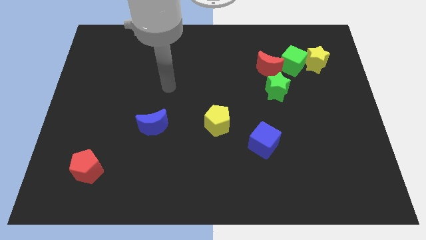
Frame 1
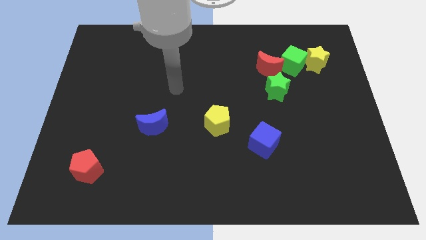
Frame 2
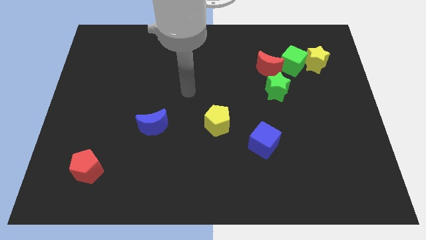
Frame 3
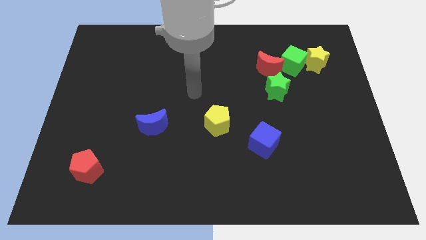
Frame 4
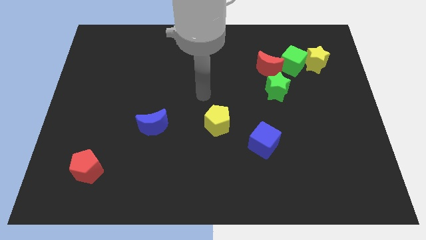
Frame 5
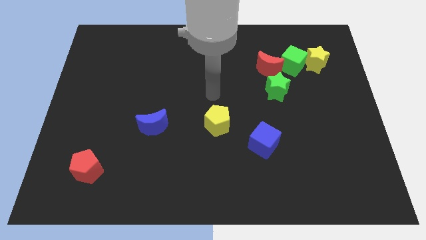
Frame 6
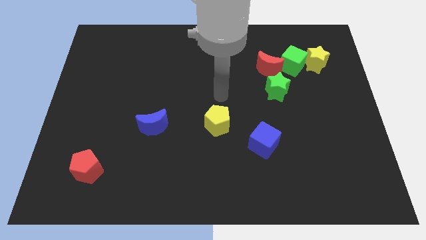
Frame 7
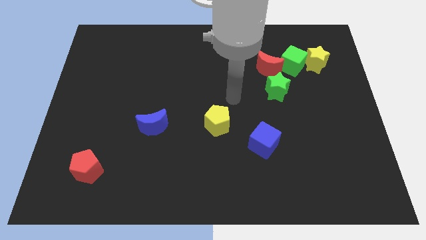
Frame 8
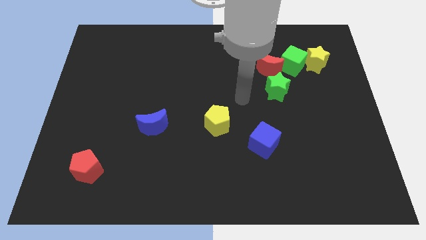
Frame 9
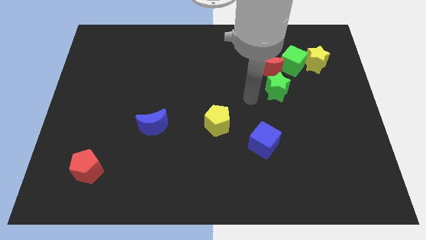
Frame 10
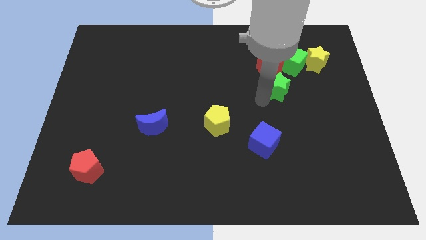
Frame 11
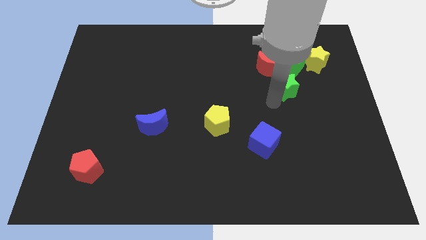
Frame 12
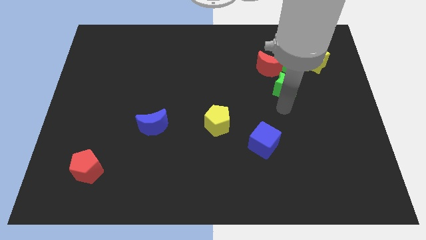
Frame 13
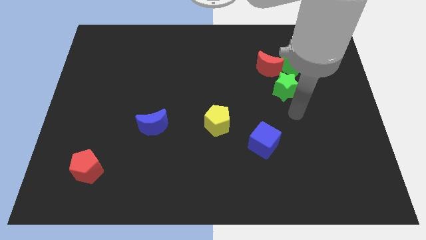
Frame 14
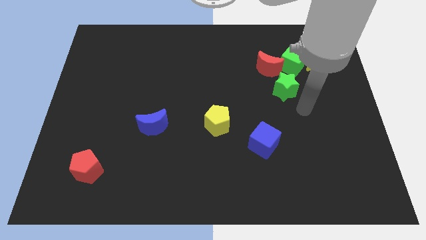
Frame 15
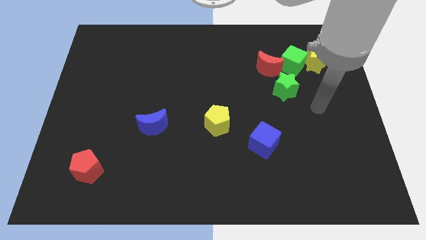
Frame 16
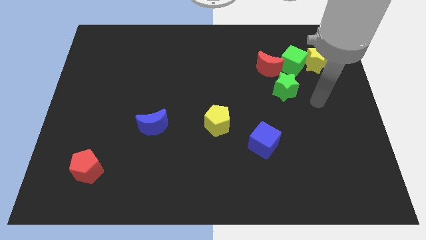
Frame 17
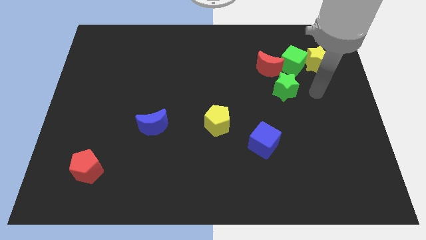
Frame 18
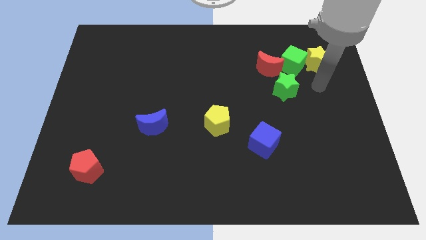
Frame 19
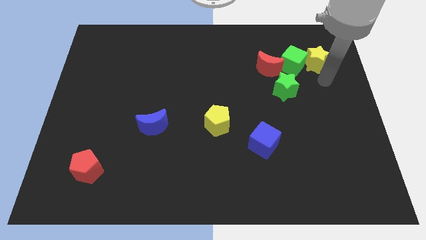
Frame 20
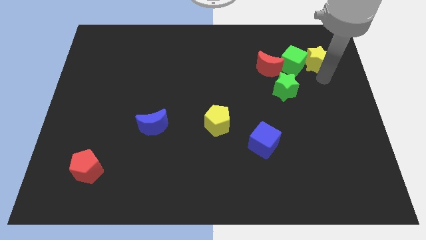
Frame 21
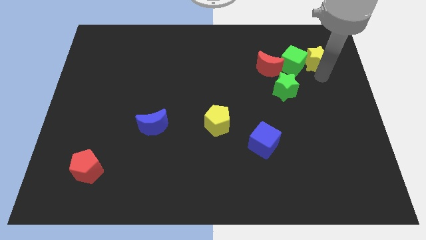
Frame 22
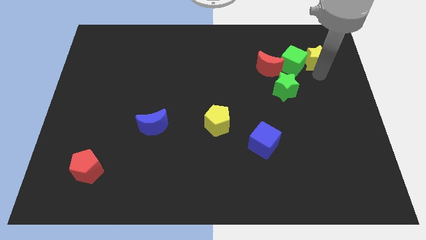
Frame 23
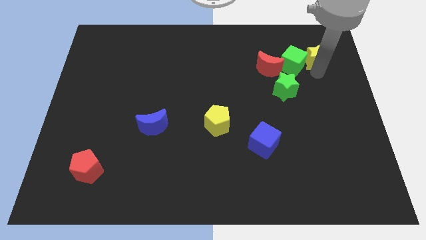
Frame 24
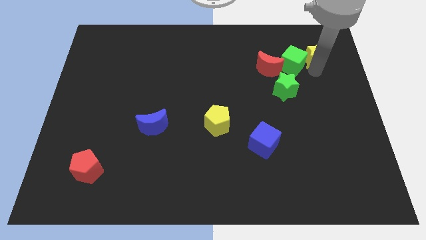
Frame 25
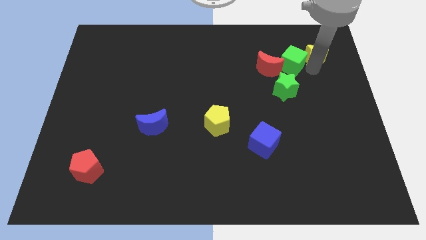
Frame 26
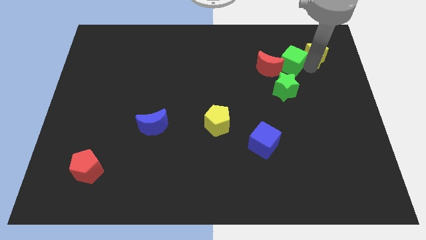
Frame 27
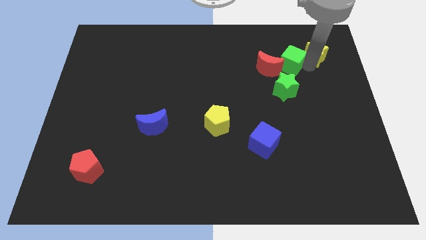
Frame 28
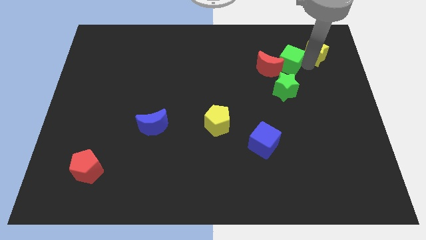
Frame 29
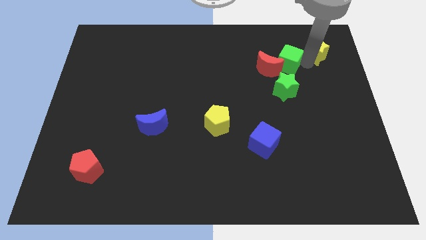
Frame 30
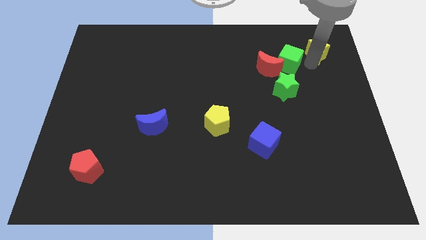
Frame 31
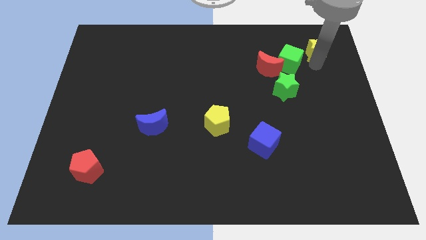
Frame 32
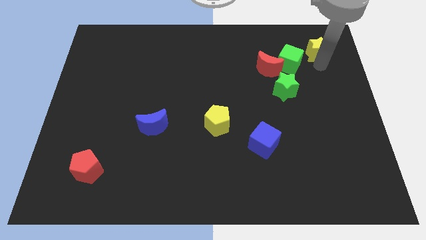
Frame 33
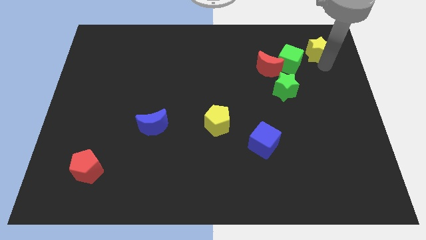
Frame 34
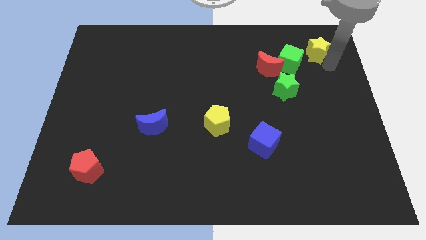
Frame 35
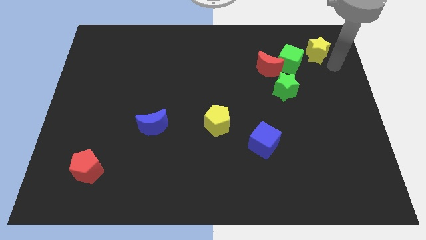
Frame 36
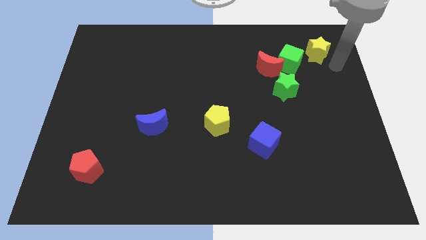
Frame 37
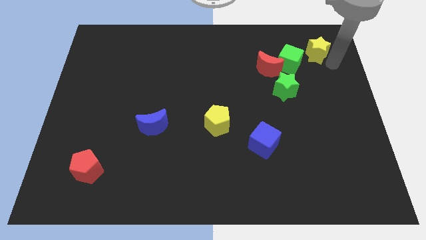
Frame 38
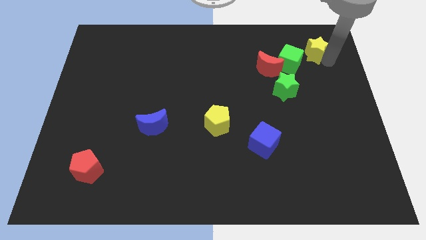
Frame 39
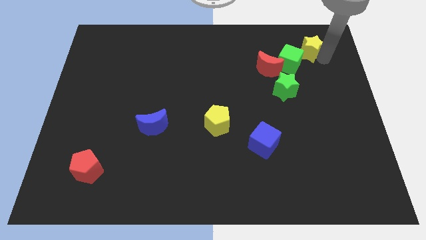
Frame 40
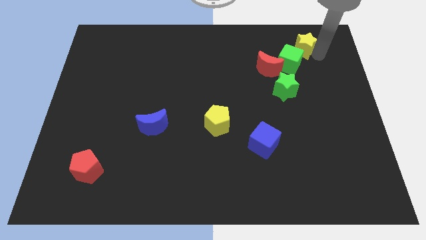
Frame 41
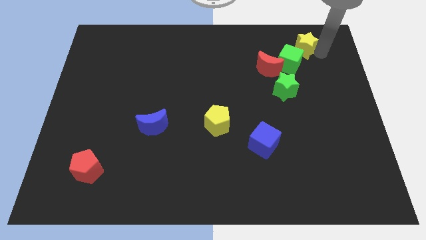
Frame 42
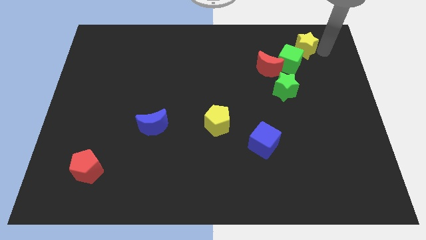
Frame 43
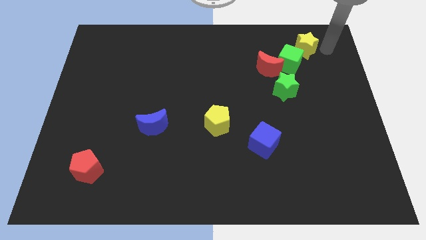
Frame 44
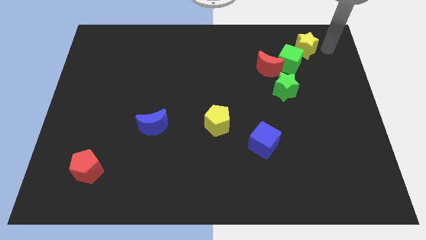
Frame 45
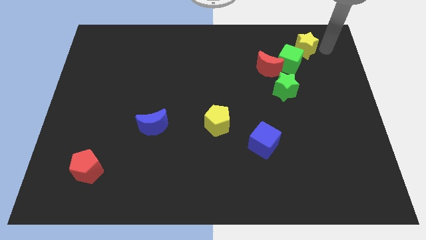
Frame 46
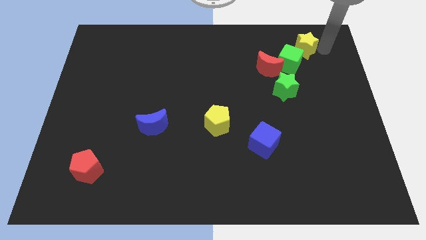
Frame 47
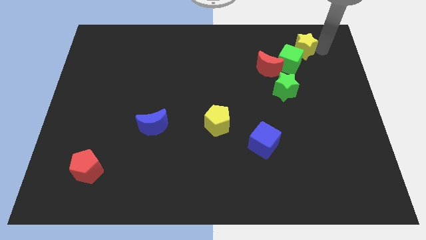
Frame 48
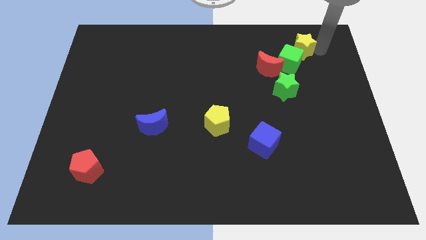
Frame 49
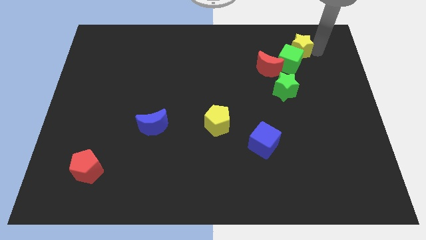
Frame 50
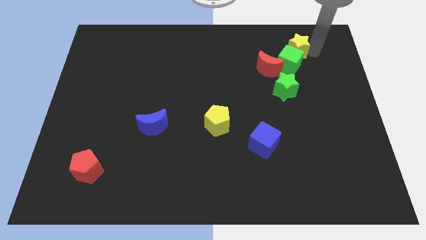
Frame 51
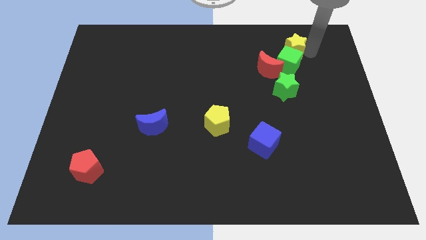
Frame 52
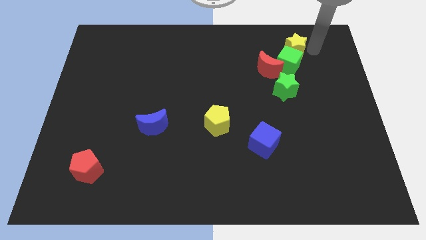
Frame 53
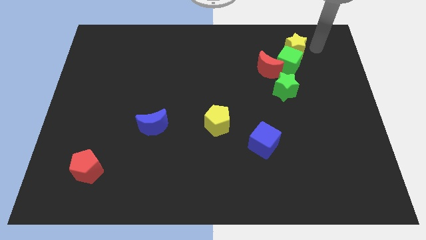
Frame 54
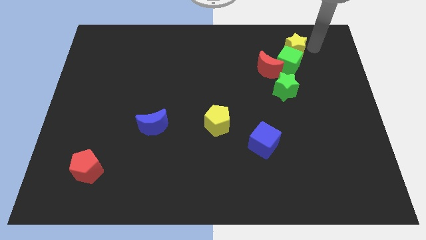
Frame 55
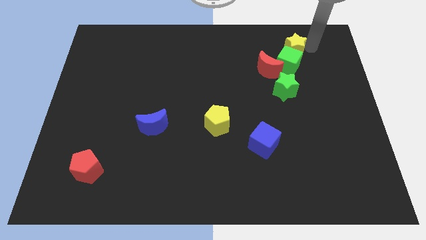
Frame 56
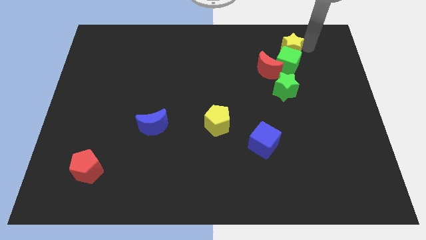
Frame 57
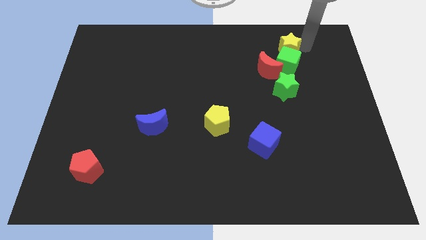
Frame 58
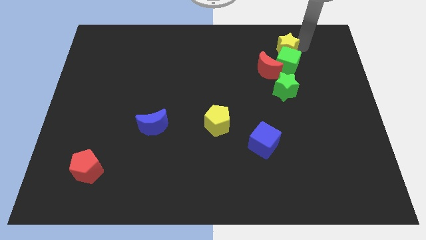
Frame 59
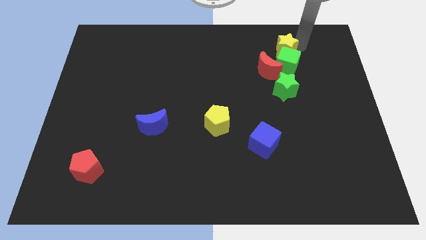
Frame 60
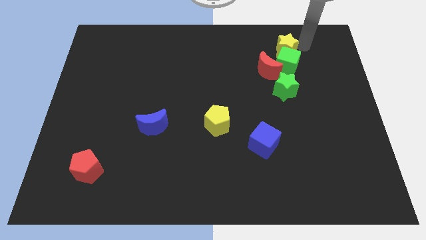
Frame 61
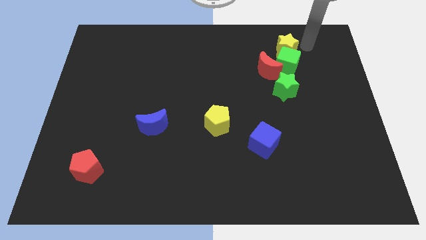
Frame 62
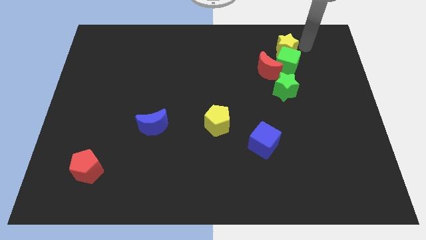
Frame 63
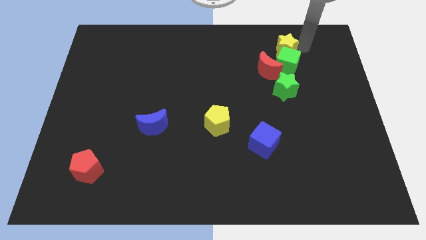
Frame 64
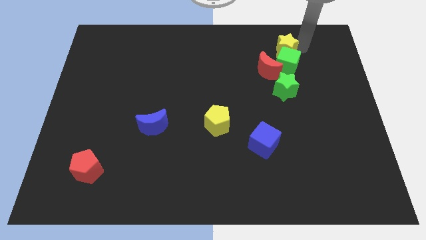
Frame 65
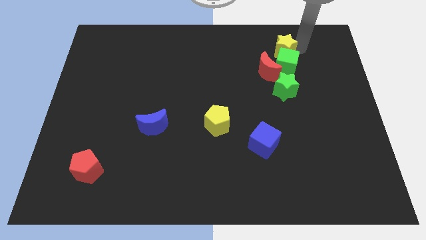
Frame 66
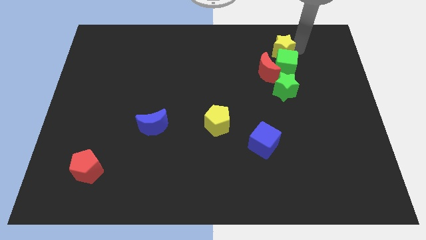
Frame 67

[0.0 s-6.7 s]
move the yellow star to the left a little

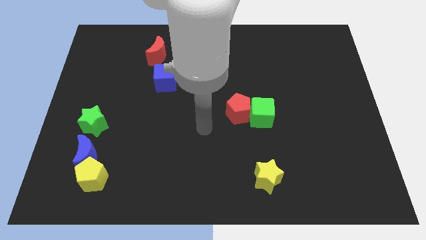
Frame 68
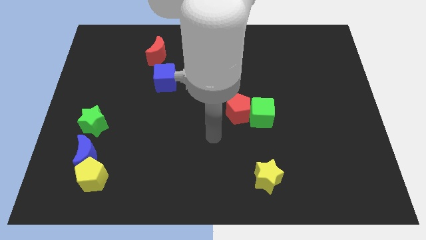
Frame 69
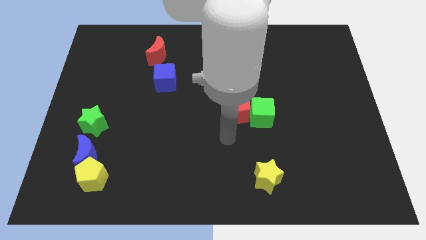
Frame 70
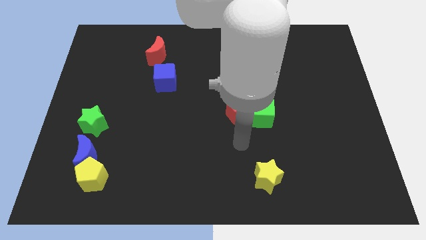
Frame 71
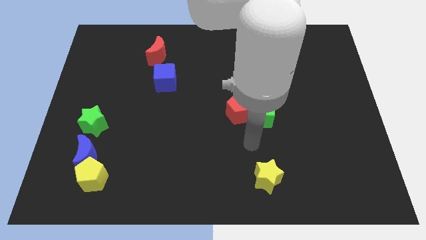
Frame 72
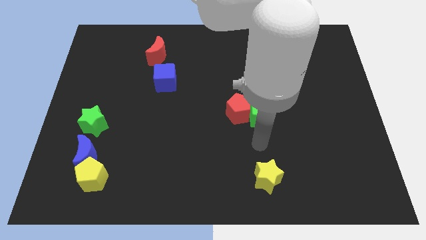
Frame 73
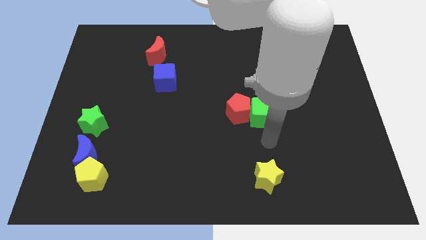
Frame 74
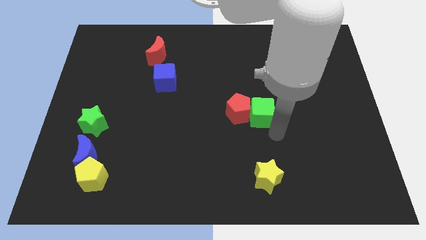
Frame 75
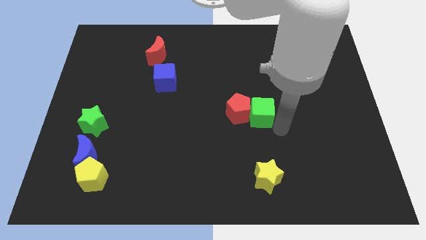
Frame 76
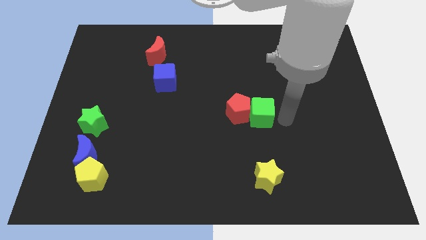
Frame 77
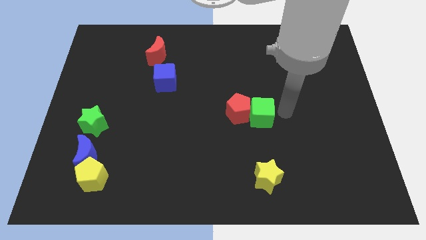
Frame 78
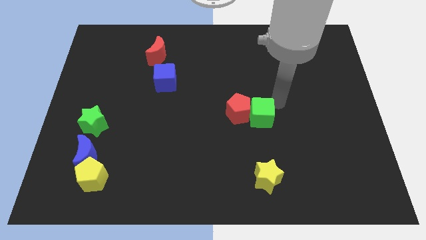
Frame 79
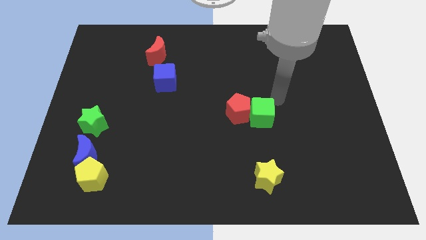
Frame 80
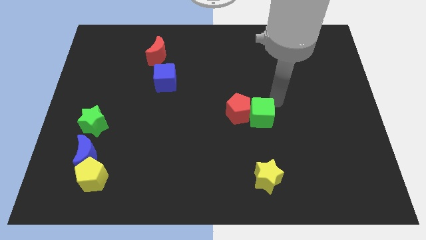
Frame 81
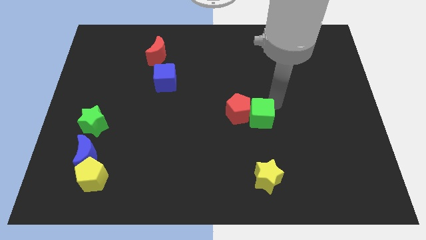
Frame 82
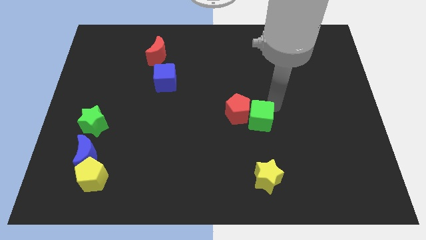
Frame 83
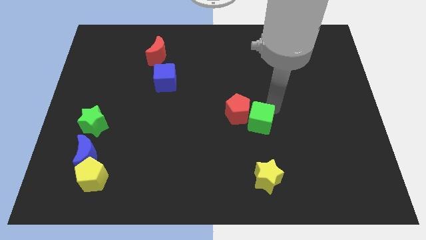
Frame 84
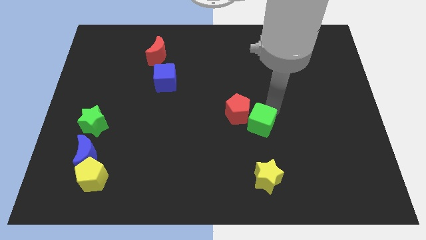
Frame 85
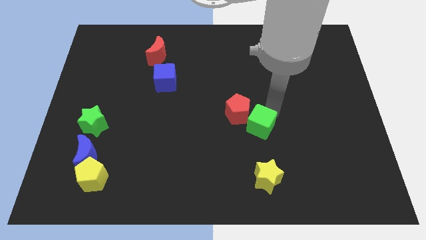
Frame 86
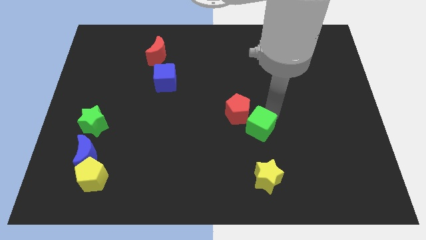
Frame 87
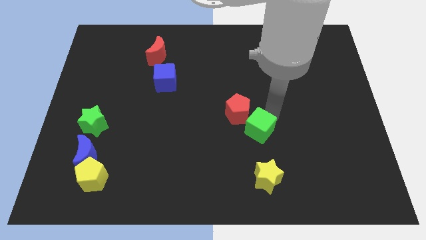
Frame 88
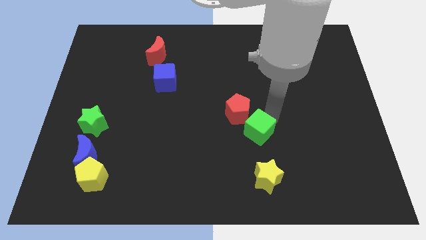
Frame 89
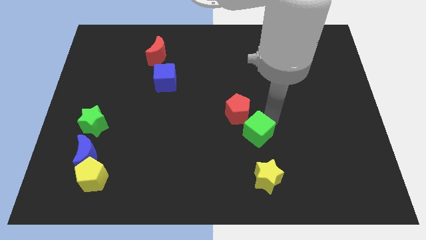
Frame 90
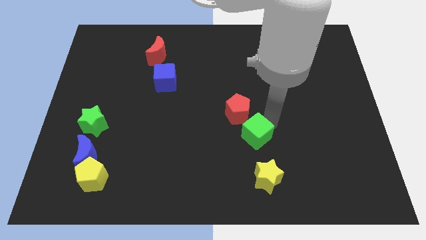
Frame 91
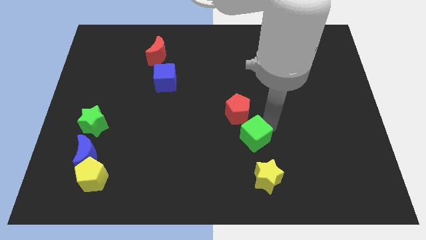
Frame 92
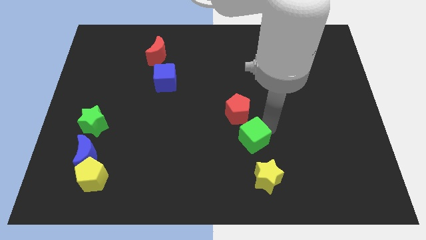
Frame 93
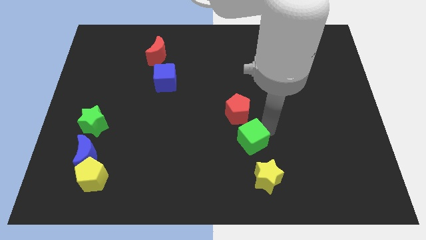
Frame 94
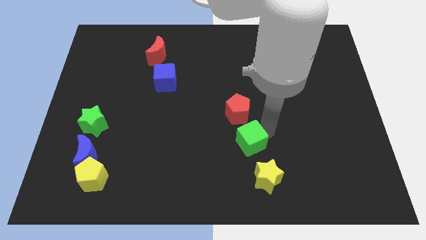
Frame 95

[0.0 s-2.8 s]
push the green cube diagonally down and to the left slightly
